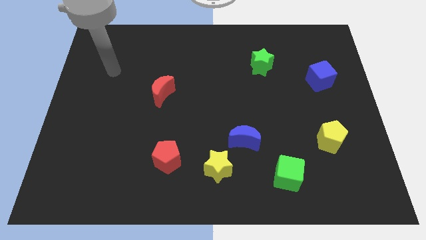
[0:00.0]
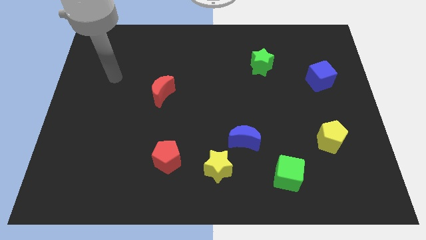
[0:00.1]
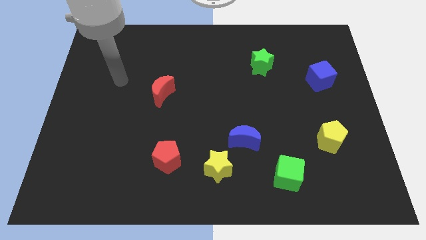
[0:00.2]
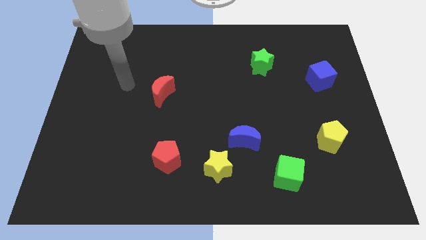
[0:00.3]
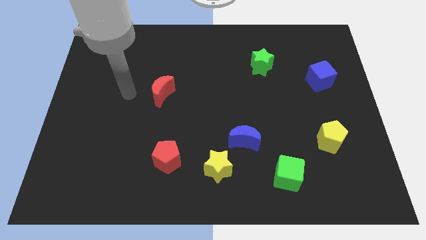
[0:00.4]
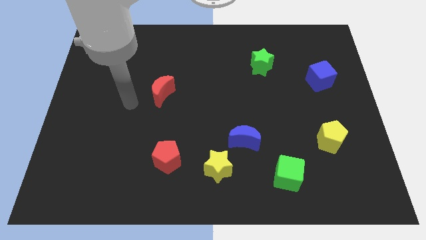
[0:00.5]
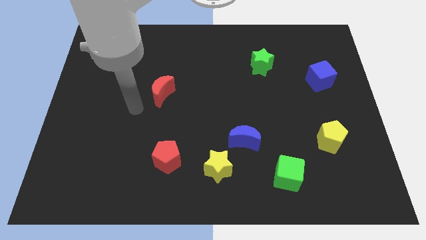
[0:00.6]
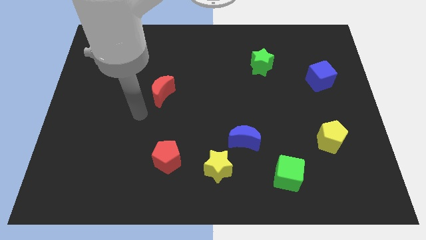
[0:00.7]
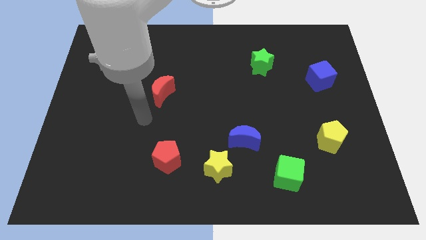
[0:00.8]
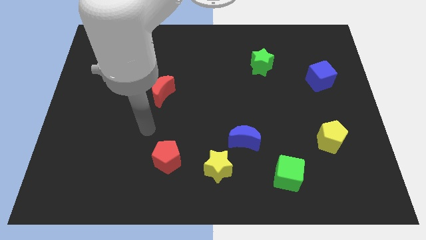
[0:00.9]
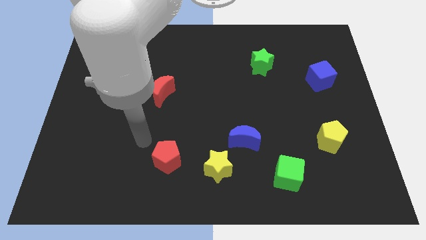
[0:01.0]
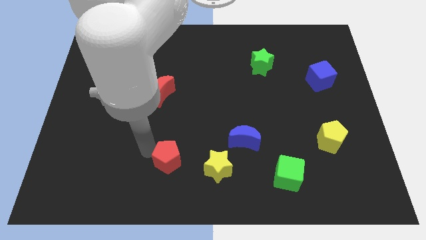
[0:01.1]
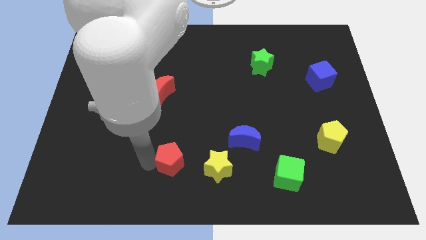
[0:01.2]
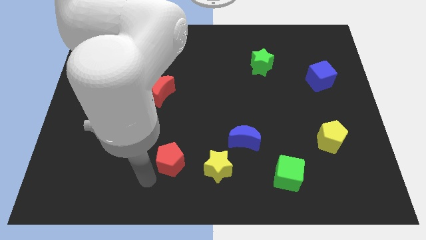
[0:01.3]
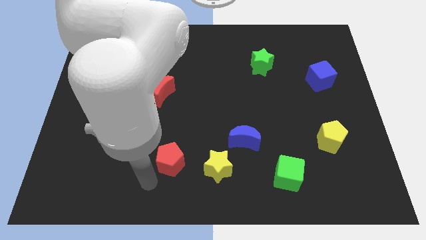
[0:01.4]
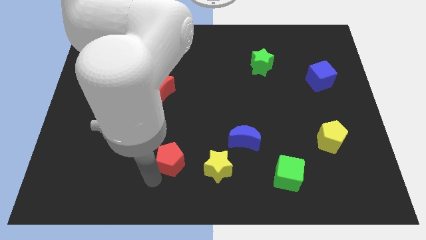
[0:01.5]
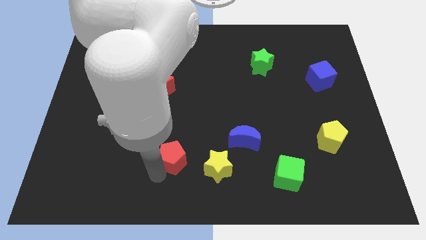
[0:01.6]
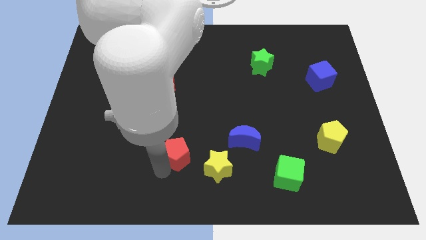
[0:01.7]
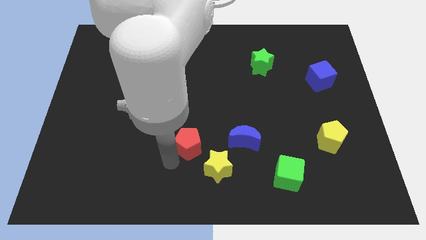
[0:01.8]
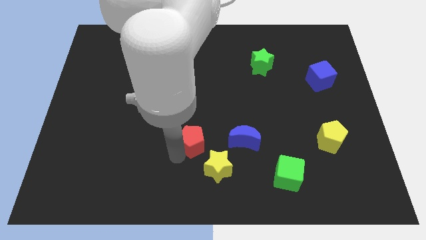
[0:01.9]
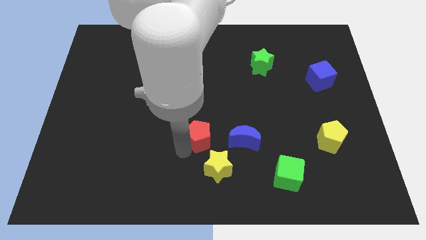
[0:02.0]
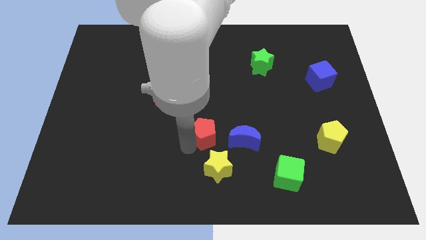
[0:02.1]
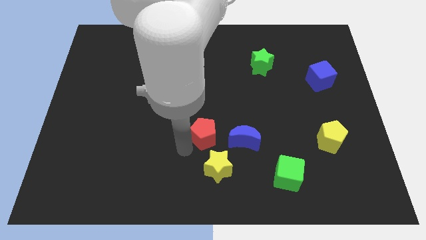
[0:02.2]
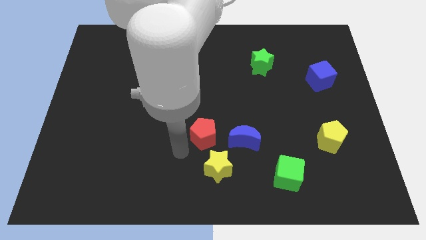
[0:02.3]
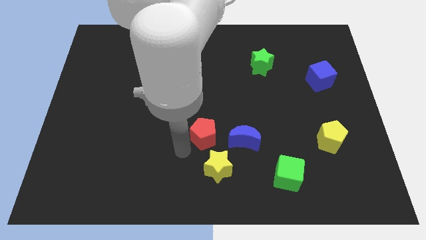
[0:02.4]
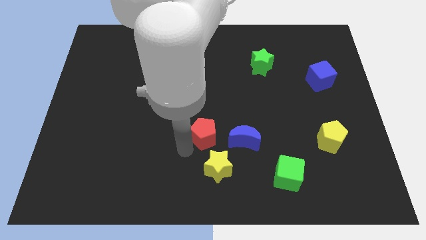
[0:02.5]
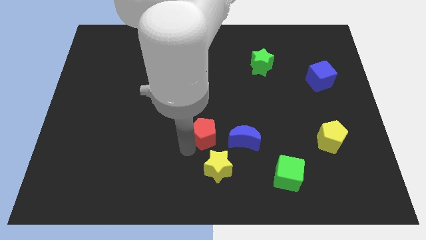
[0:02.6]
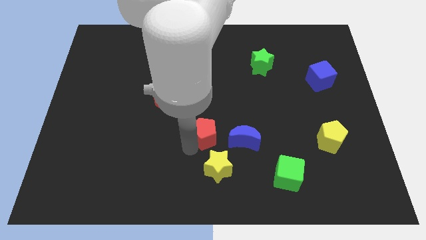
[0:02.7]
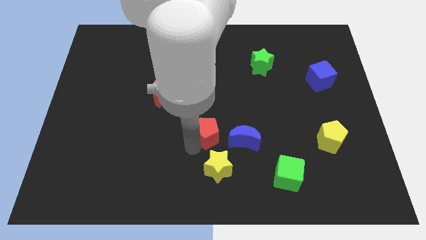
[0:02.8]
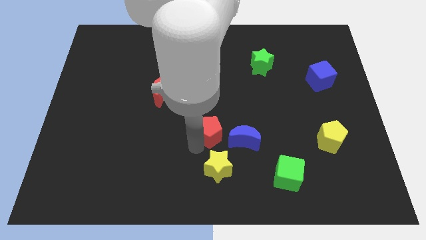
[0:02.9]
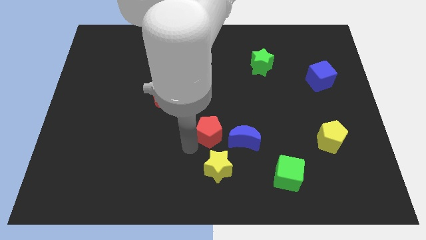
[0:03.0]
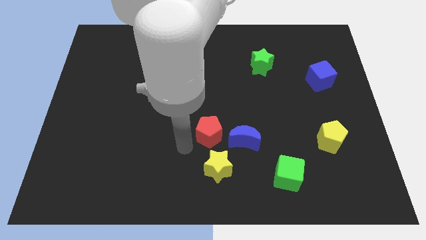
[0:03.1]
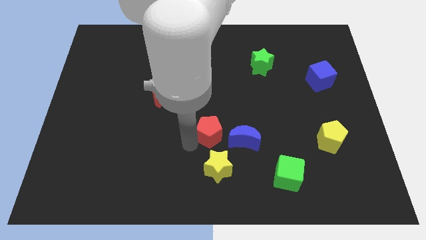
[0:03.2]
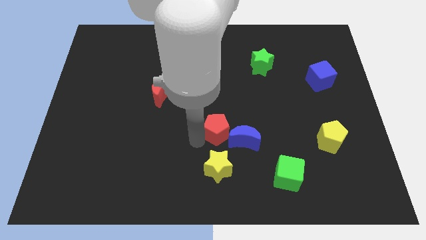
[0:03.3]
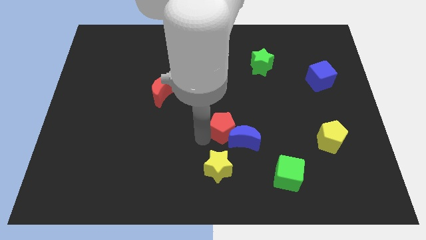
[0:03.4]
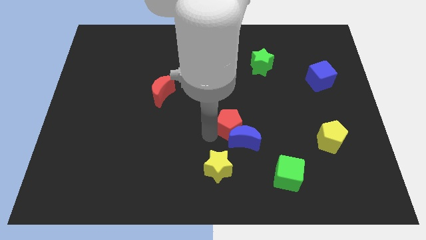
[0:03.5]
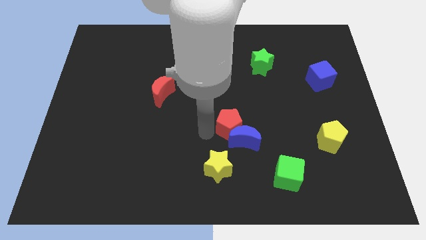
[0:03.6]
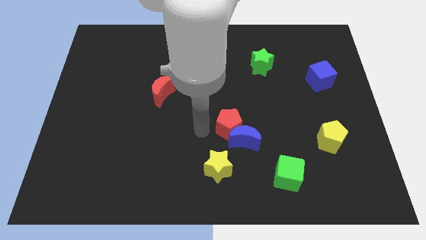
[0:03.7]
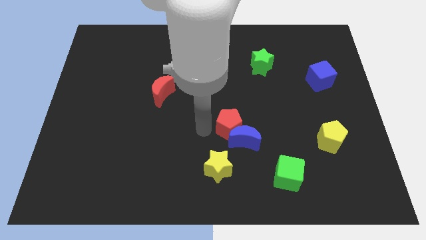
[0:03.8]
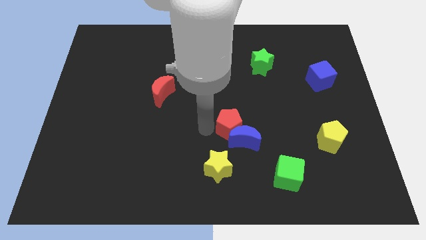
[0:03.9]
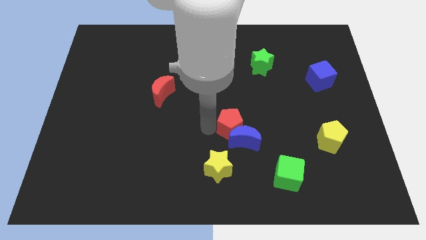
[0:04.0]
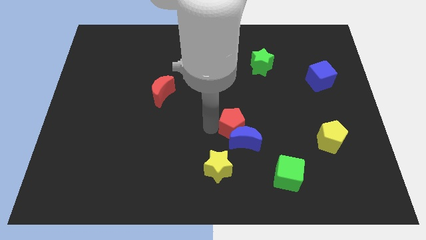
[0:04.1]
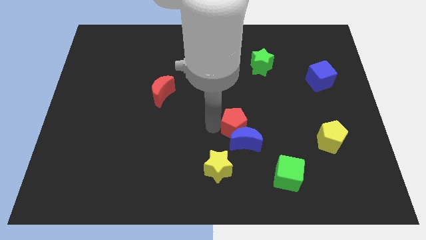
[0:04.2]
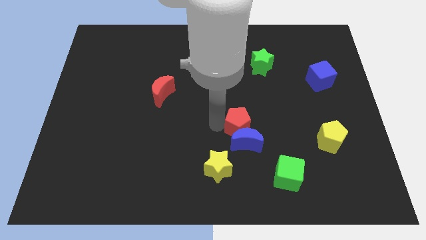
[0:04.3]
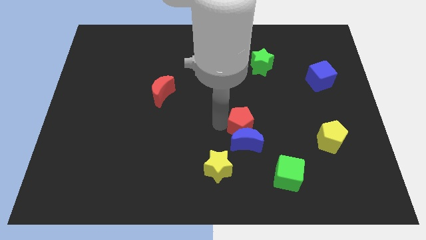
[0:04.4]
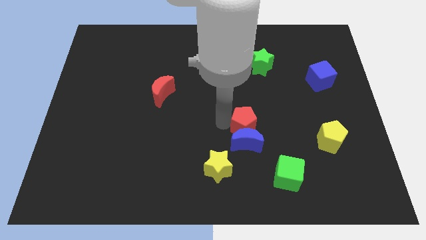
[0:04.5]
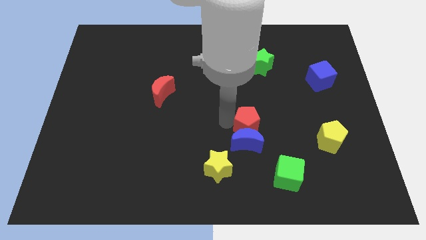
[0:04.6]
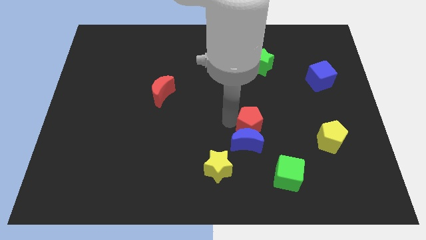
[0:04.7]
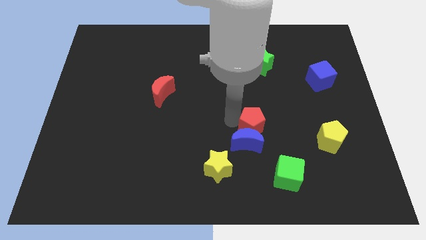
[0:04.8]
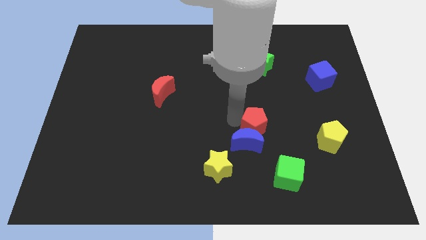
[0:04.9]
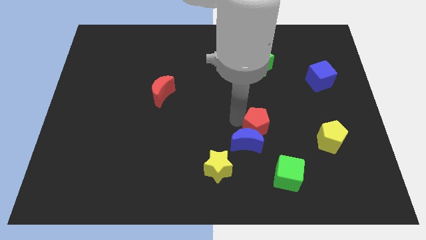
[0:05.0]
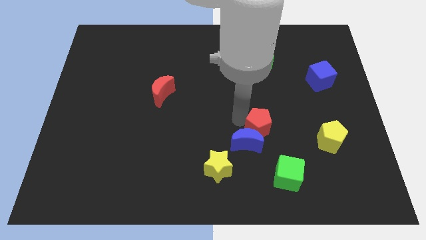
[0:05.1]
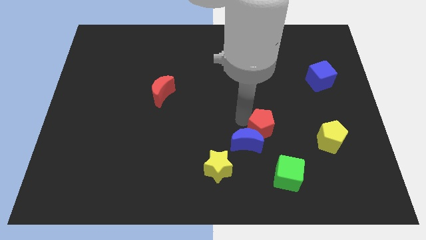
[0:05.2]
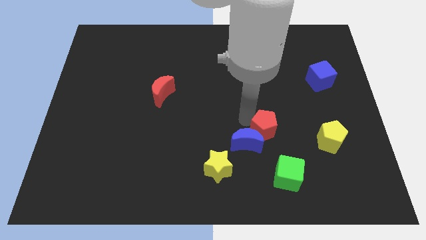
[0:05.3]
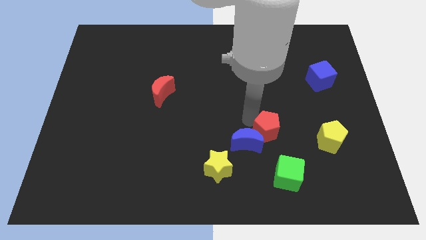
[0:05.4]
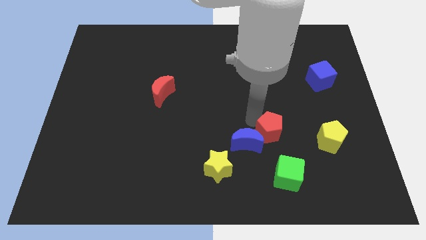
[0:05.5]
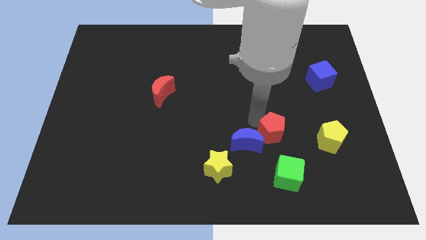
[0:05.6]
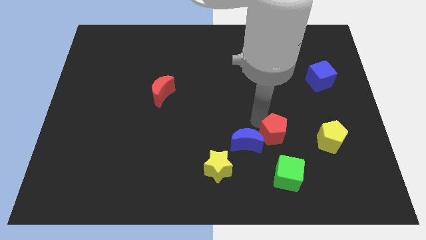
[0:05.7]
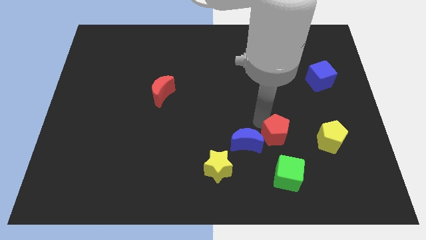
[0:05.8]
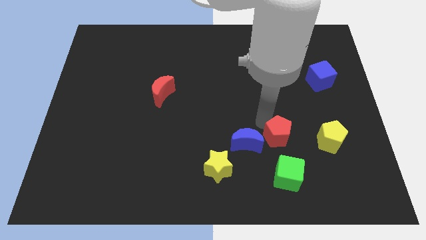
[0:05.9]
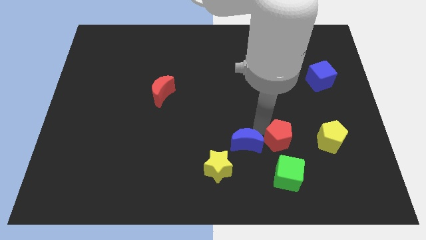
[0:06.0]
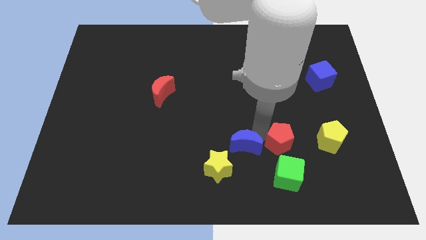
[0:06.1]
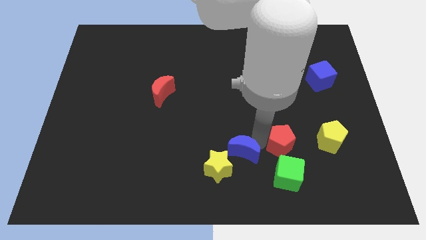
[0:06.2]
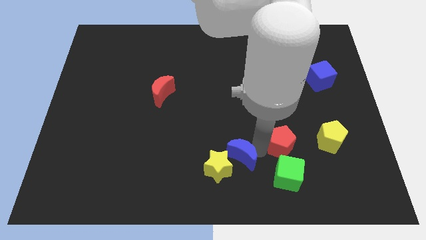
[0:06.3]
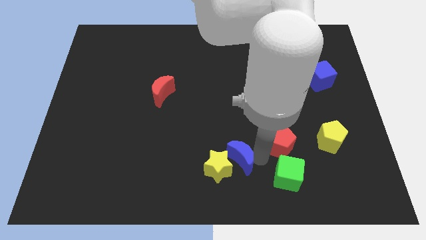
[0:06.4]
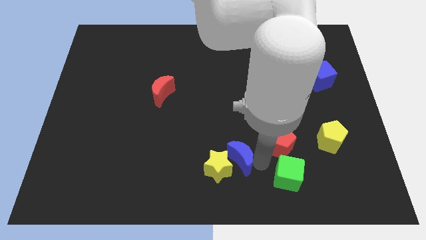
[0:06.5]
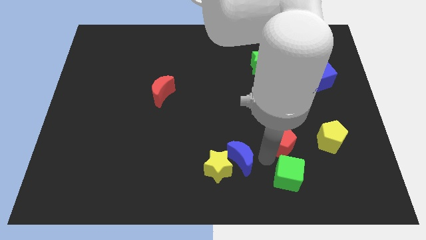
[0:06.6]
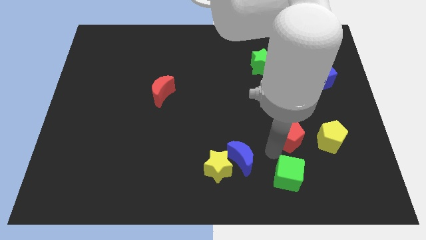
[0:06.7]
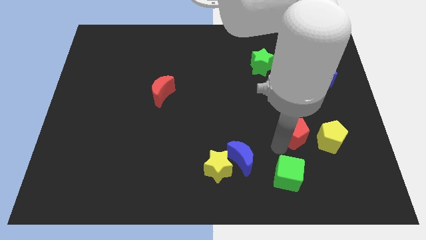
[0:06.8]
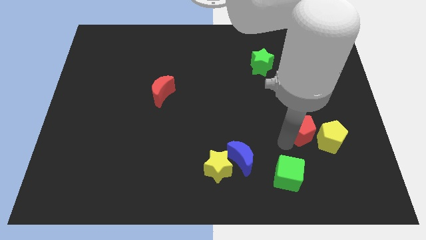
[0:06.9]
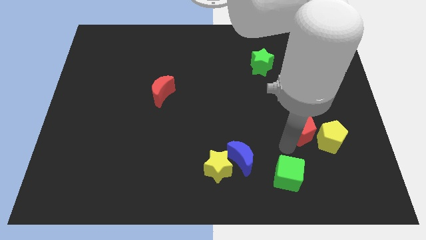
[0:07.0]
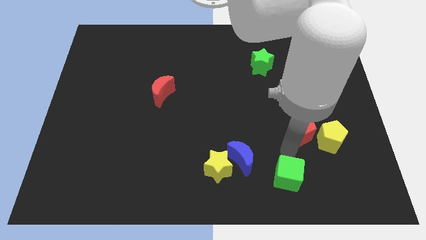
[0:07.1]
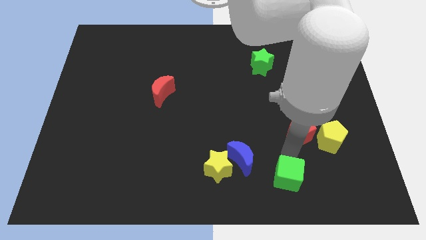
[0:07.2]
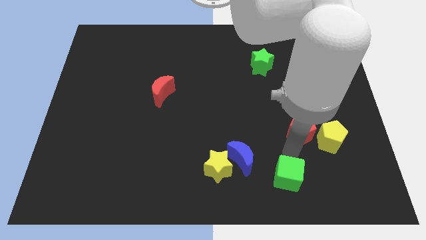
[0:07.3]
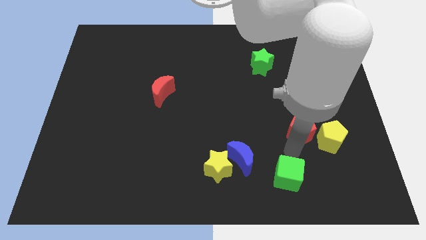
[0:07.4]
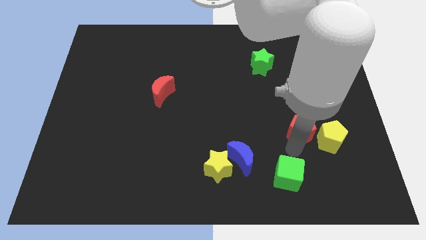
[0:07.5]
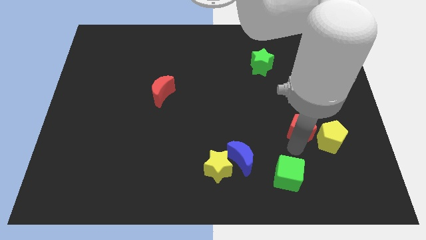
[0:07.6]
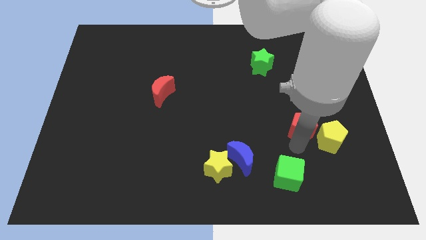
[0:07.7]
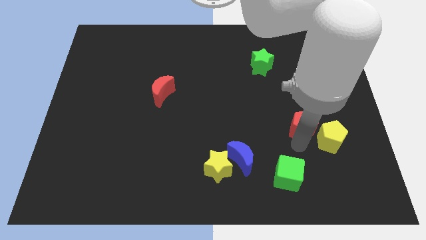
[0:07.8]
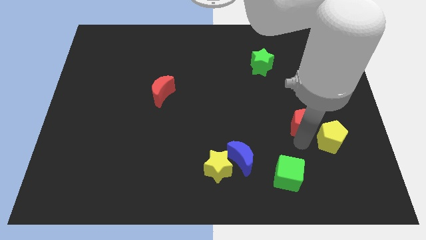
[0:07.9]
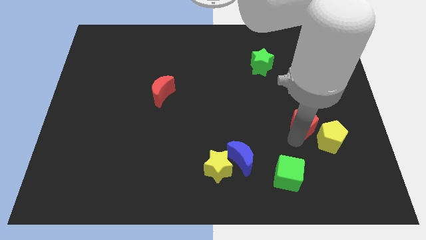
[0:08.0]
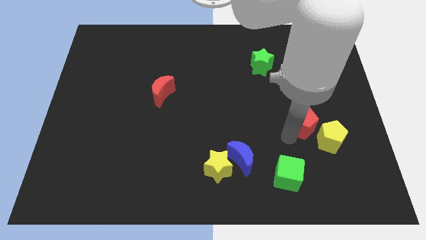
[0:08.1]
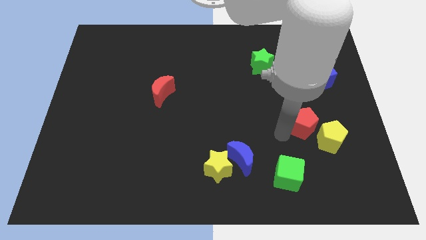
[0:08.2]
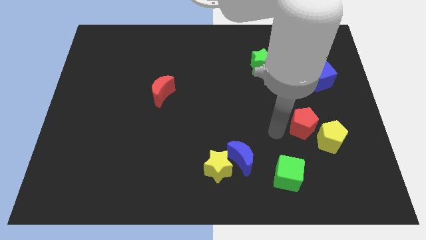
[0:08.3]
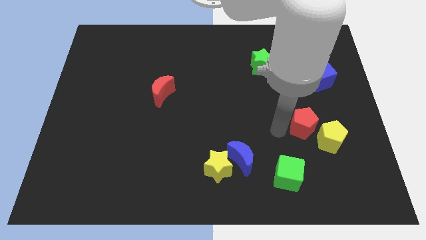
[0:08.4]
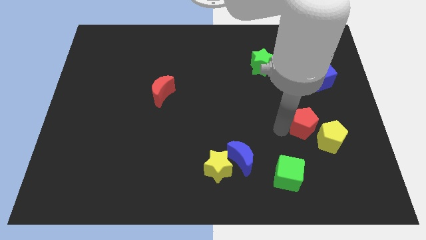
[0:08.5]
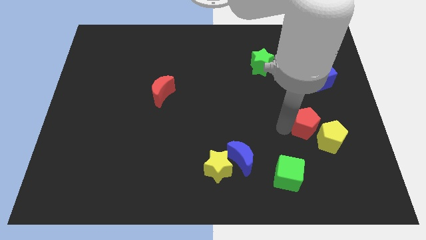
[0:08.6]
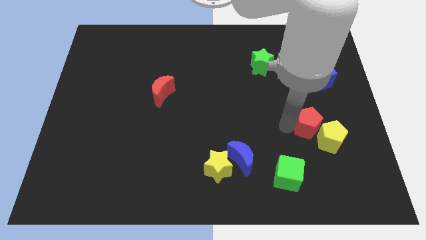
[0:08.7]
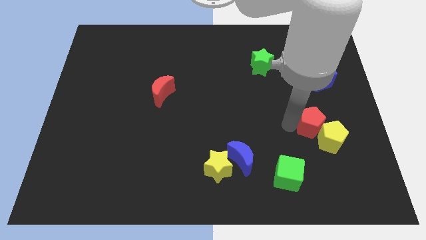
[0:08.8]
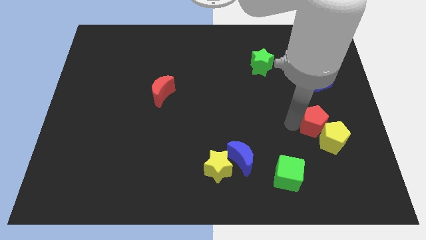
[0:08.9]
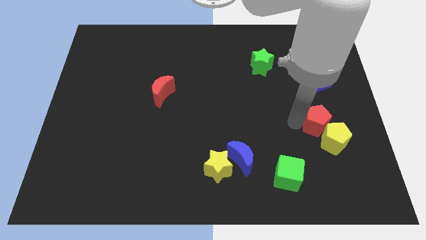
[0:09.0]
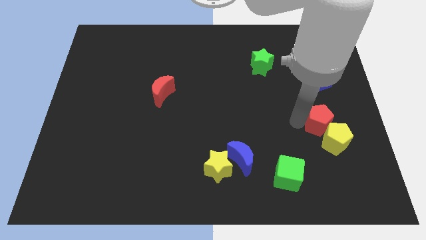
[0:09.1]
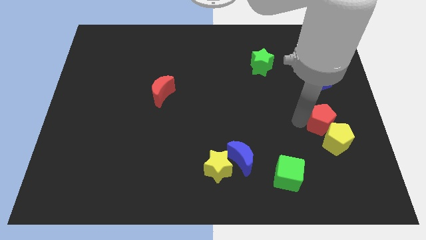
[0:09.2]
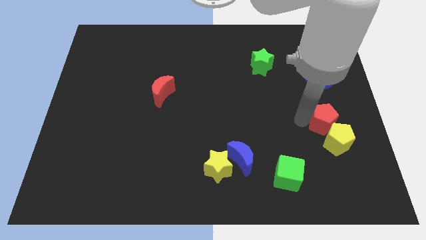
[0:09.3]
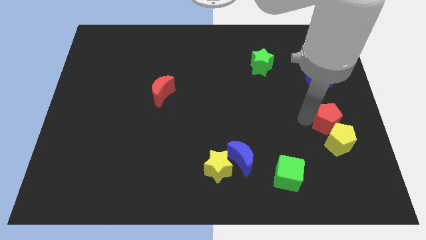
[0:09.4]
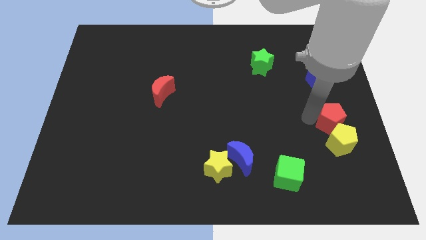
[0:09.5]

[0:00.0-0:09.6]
push the red pentagon to the right side
